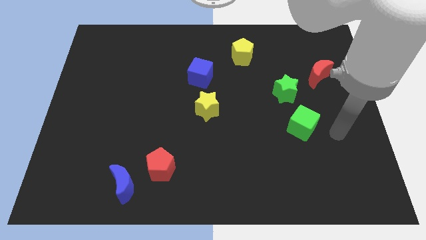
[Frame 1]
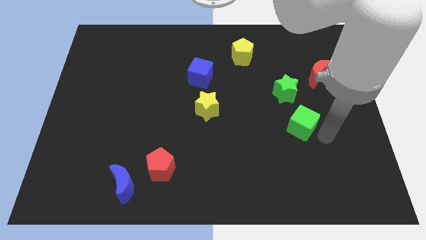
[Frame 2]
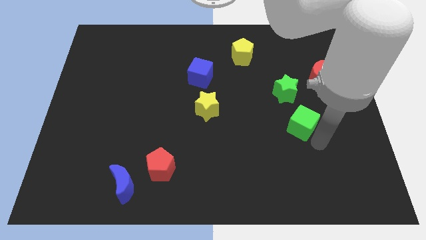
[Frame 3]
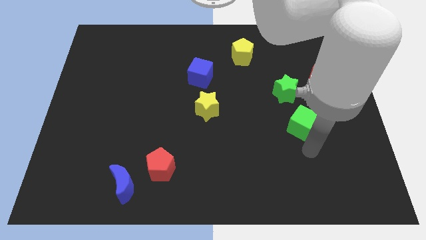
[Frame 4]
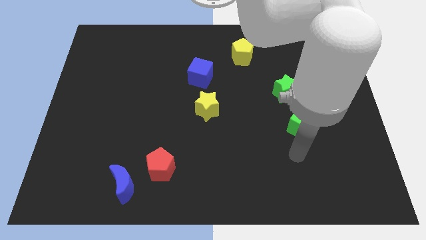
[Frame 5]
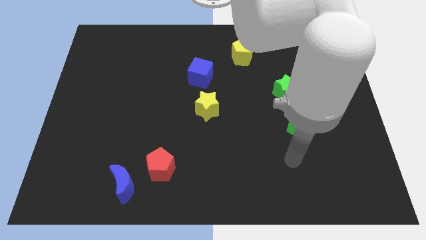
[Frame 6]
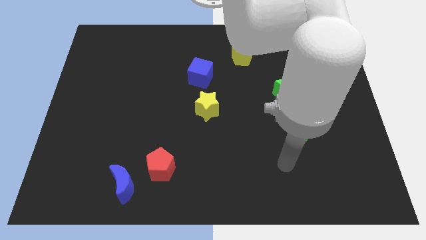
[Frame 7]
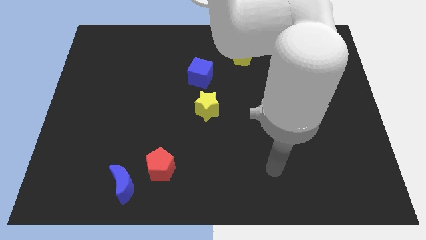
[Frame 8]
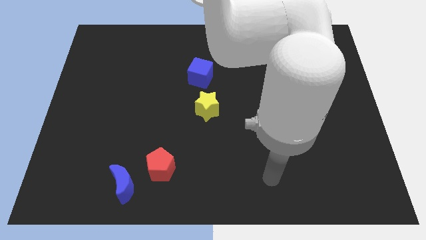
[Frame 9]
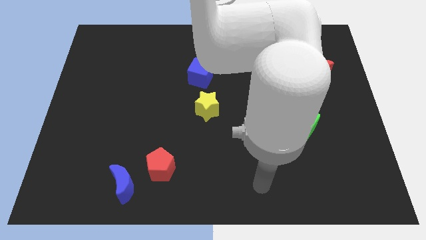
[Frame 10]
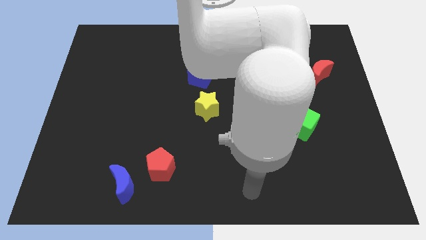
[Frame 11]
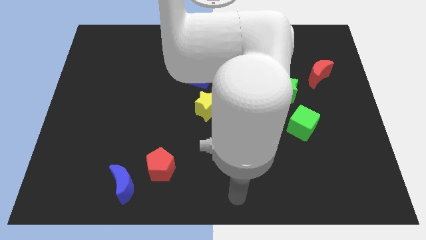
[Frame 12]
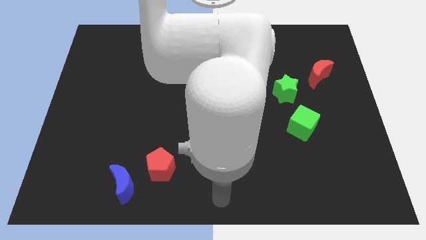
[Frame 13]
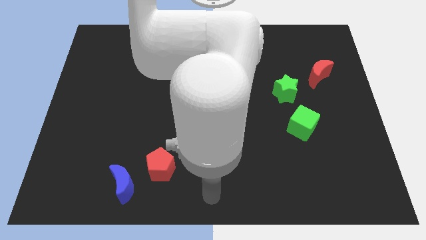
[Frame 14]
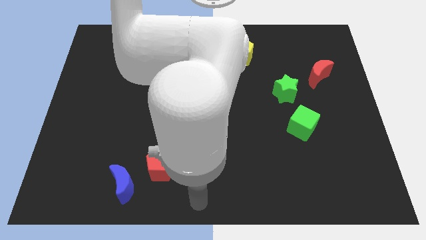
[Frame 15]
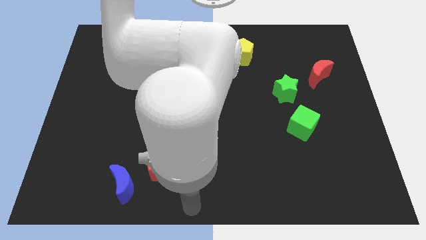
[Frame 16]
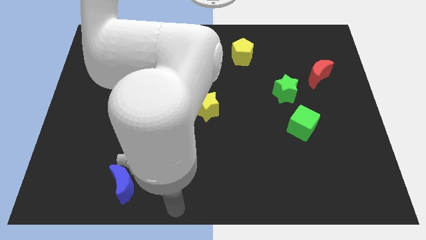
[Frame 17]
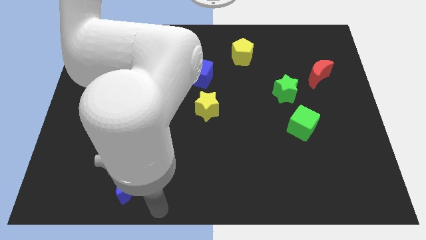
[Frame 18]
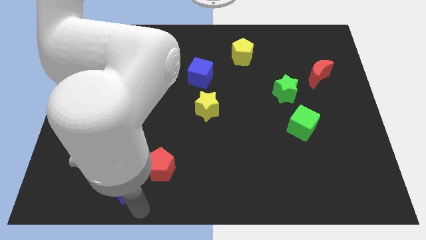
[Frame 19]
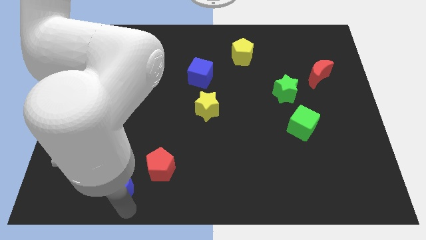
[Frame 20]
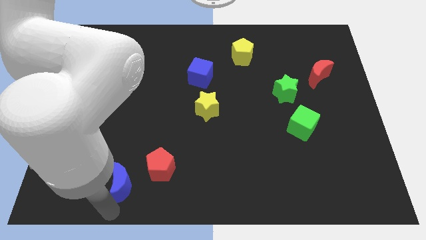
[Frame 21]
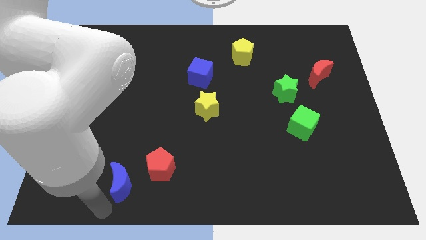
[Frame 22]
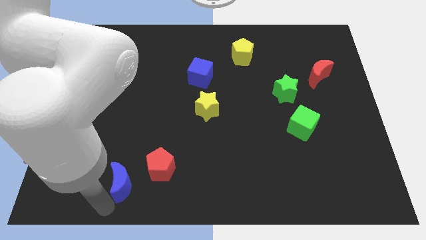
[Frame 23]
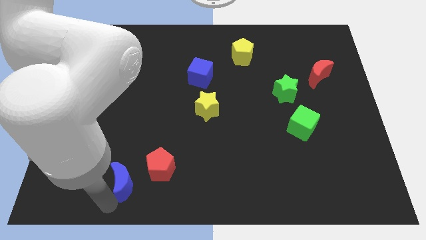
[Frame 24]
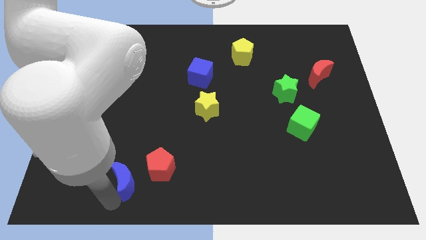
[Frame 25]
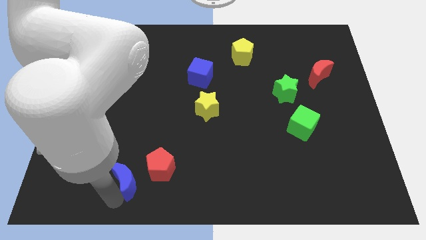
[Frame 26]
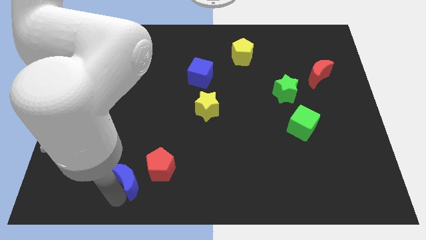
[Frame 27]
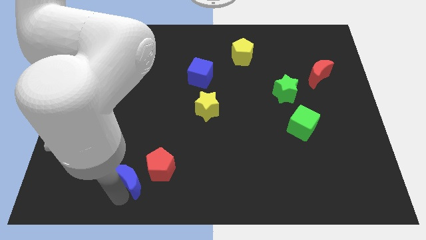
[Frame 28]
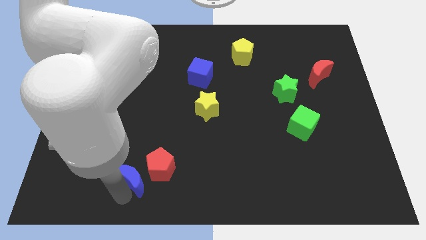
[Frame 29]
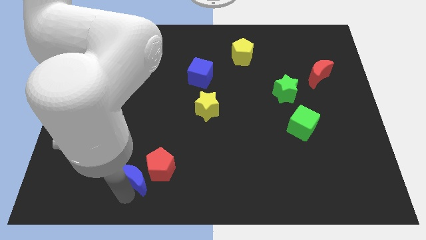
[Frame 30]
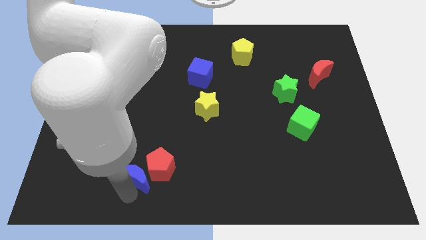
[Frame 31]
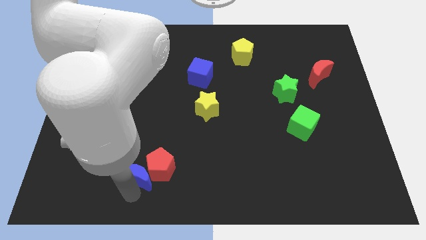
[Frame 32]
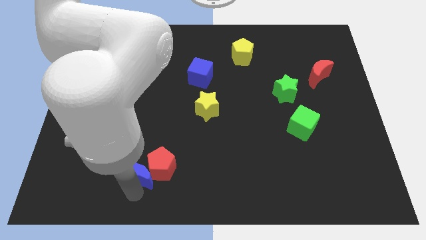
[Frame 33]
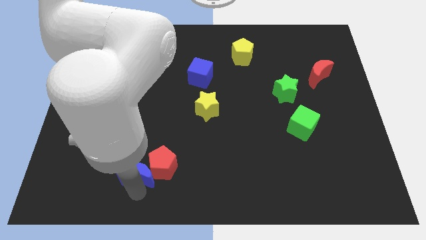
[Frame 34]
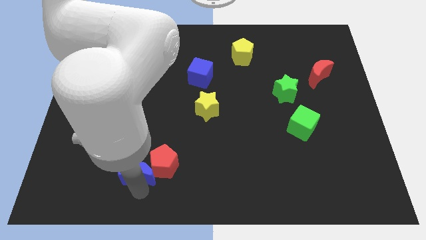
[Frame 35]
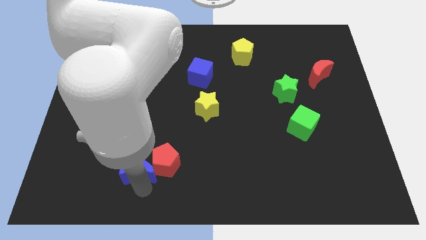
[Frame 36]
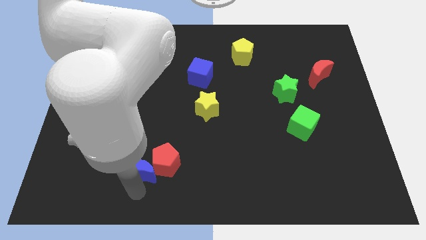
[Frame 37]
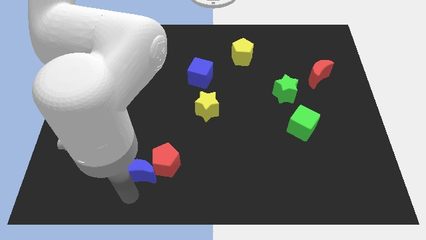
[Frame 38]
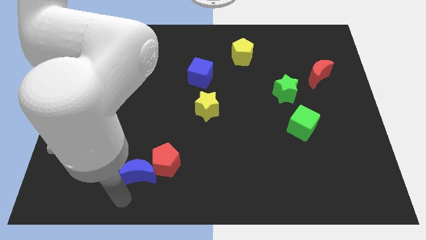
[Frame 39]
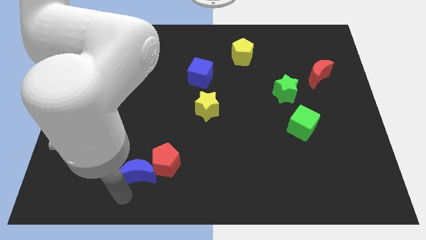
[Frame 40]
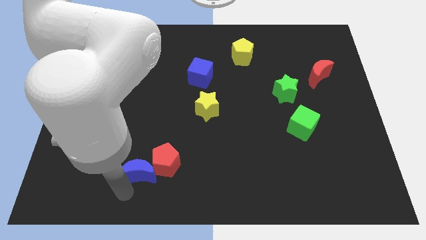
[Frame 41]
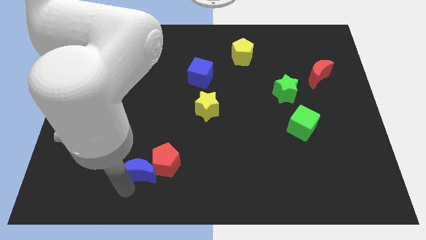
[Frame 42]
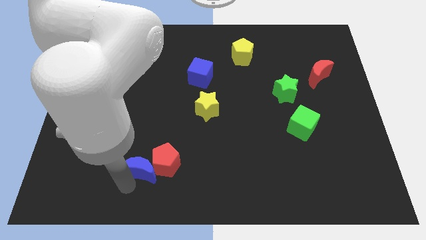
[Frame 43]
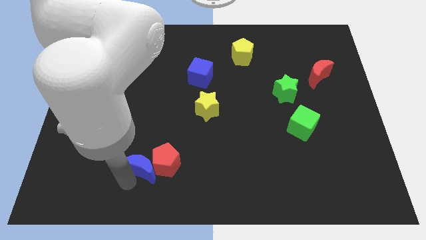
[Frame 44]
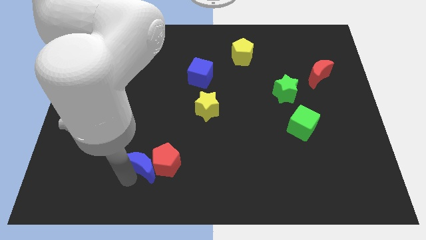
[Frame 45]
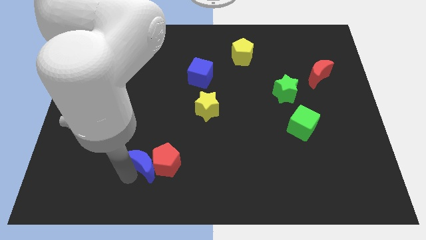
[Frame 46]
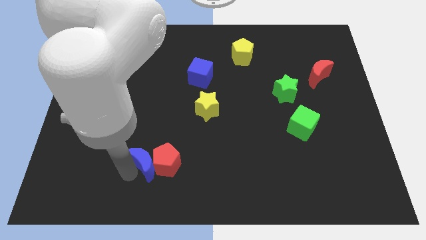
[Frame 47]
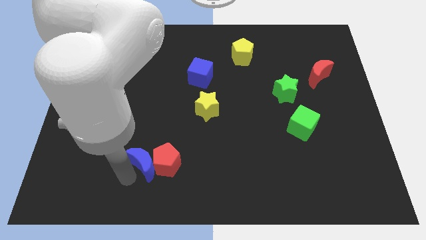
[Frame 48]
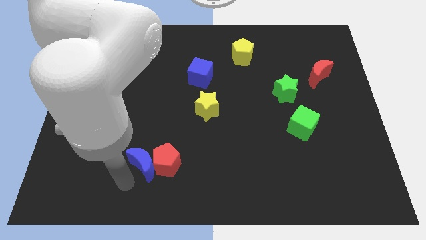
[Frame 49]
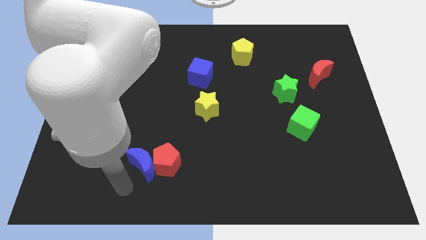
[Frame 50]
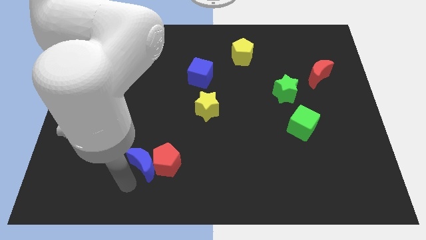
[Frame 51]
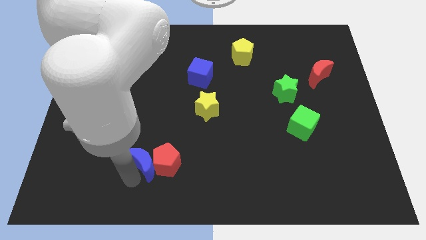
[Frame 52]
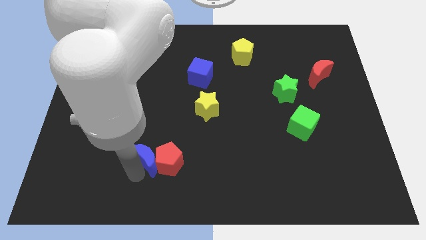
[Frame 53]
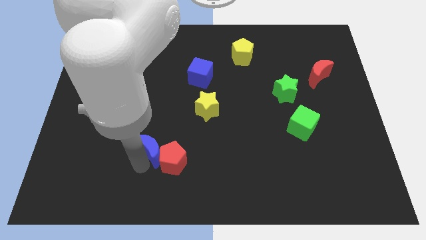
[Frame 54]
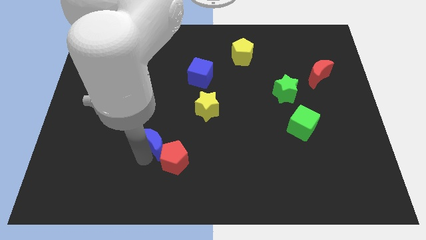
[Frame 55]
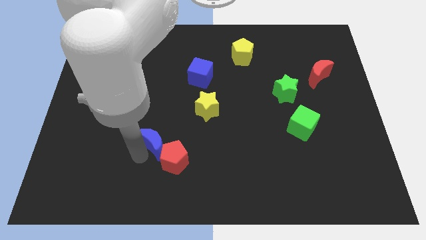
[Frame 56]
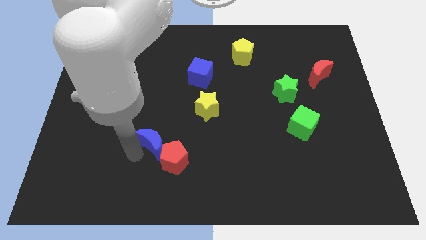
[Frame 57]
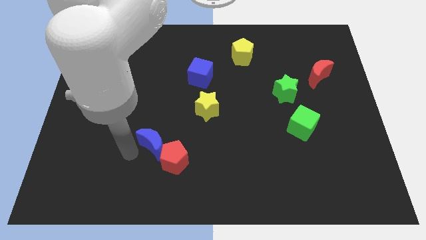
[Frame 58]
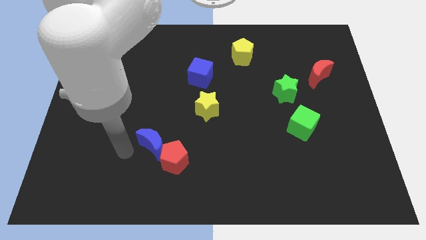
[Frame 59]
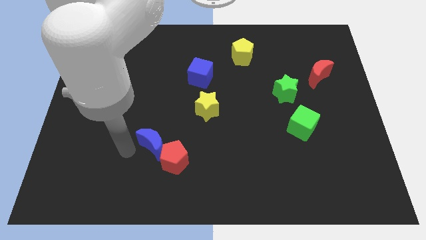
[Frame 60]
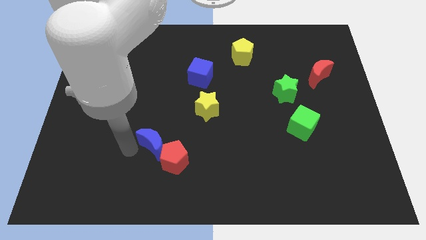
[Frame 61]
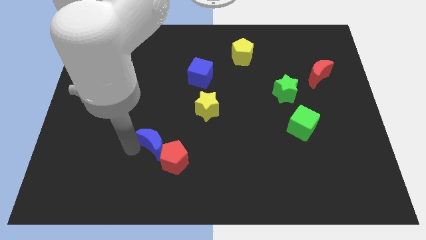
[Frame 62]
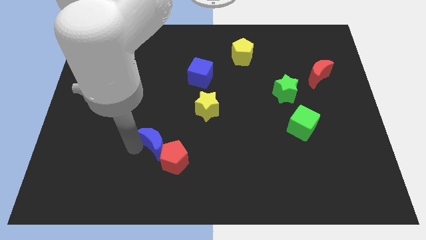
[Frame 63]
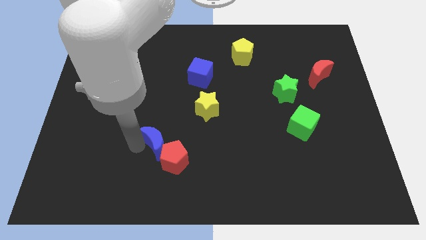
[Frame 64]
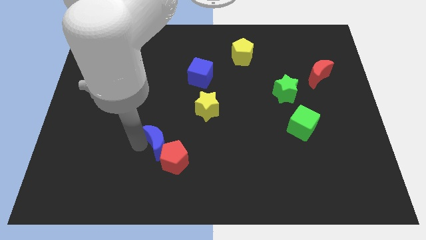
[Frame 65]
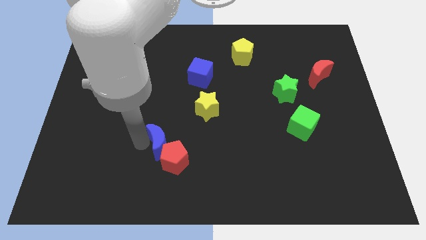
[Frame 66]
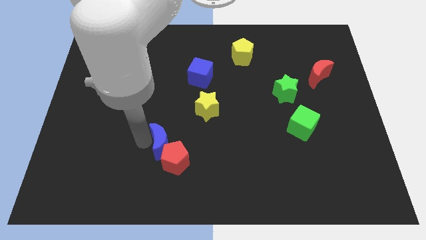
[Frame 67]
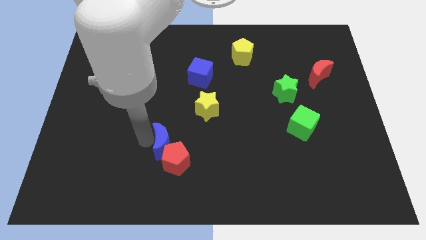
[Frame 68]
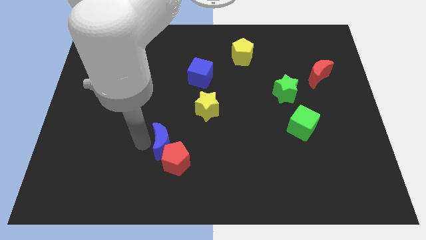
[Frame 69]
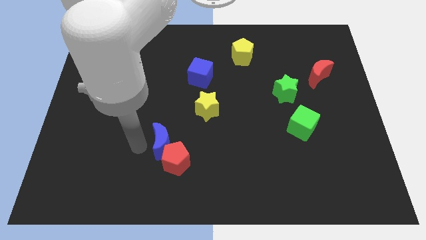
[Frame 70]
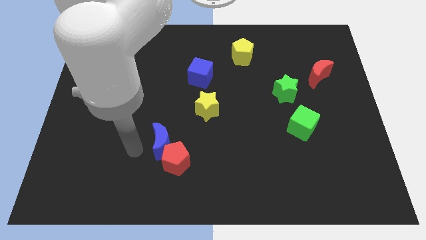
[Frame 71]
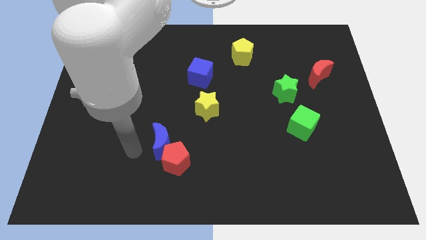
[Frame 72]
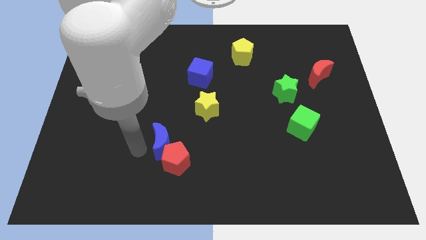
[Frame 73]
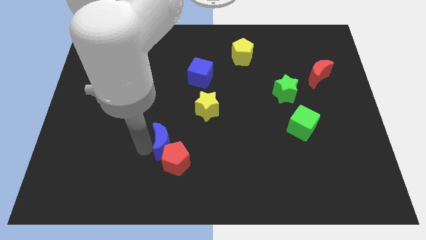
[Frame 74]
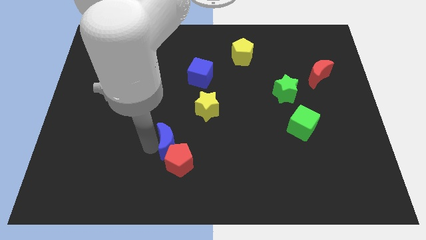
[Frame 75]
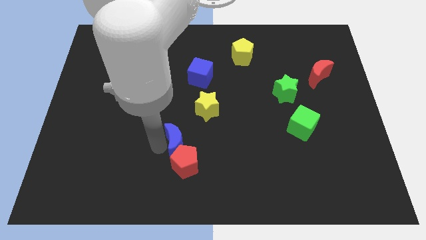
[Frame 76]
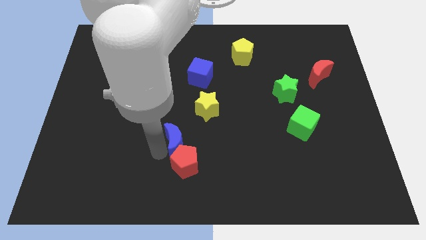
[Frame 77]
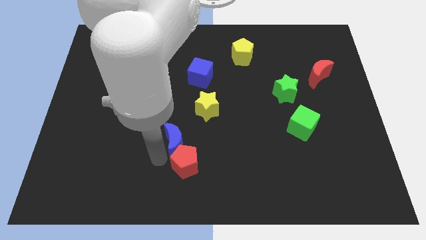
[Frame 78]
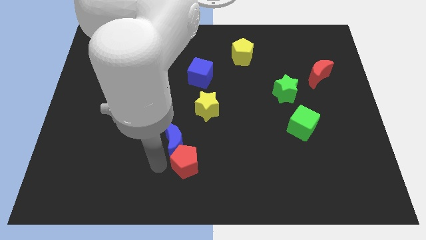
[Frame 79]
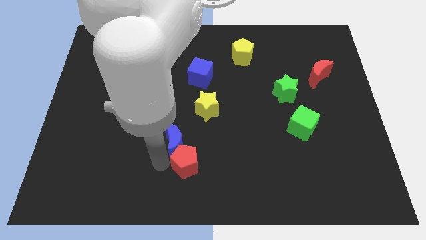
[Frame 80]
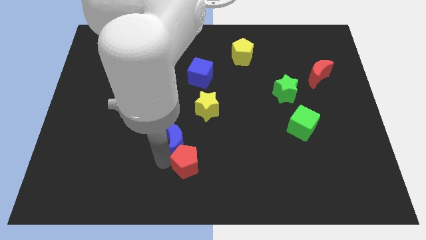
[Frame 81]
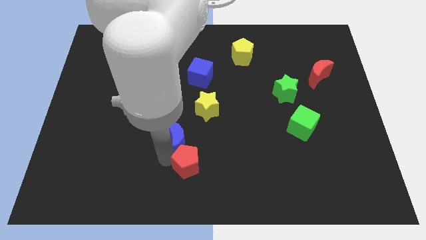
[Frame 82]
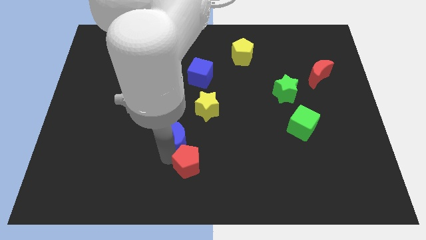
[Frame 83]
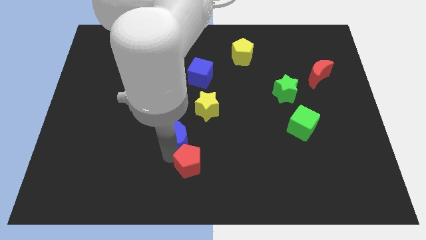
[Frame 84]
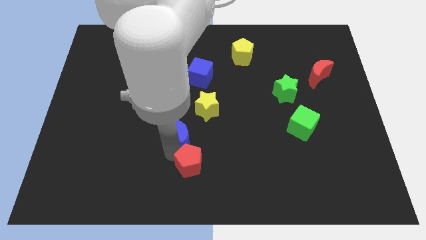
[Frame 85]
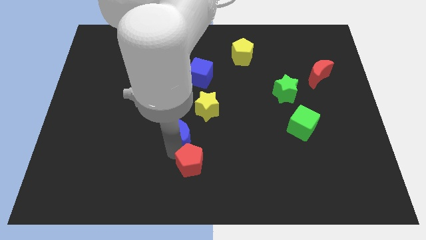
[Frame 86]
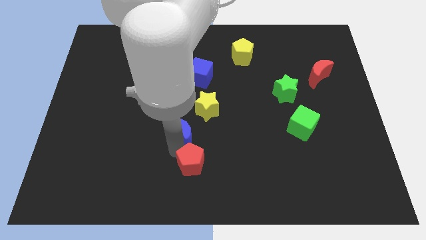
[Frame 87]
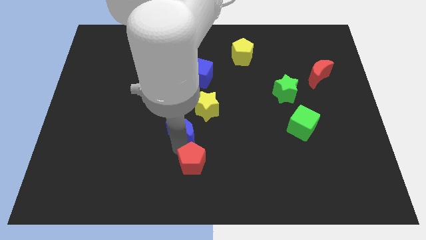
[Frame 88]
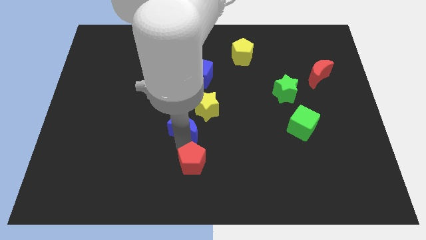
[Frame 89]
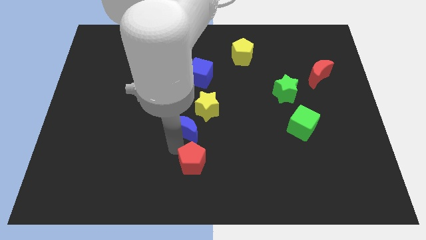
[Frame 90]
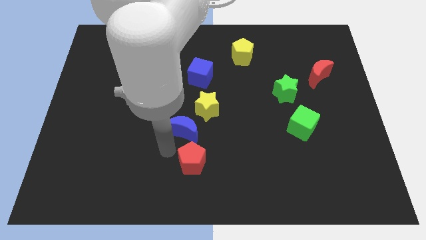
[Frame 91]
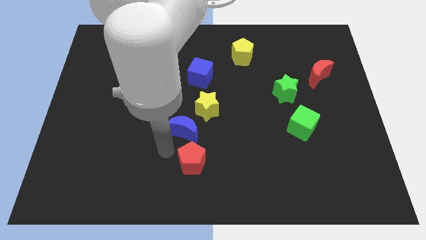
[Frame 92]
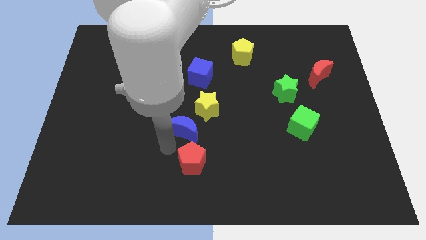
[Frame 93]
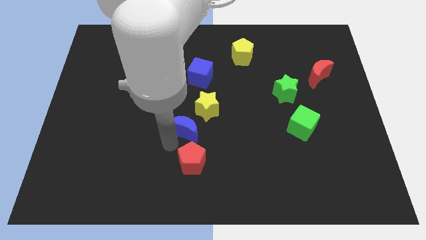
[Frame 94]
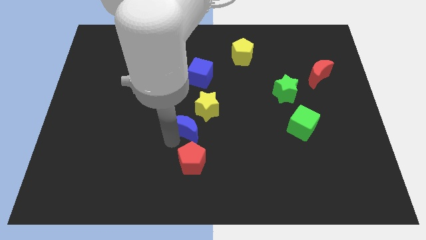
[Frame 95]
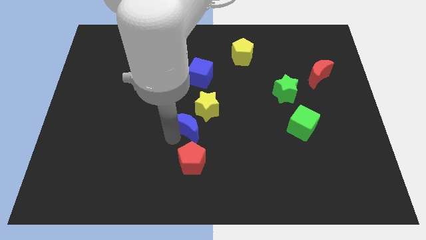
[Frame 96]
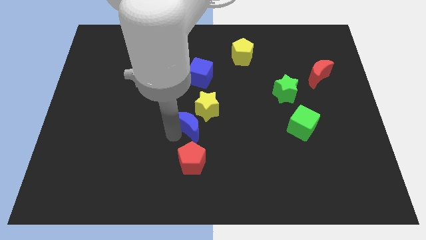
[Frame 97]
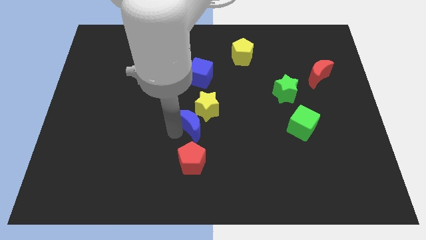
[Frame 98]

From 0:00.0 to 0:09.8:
move the blue moon to the yellow star
